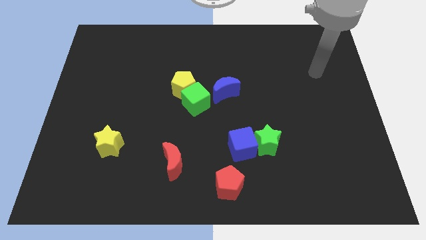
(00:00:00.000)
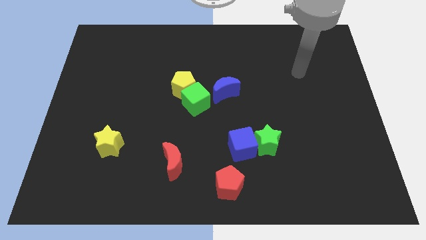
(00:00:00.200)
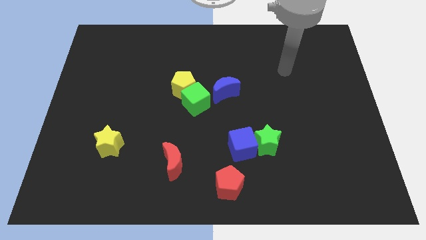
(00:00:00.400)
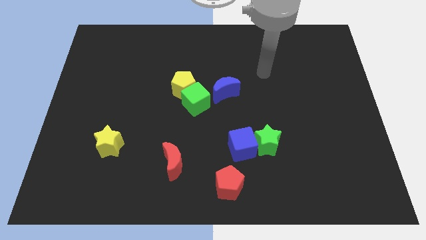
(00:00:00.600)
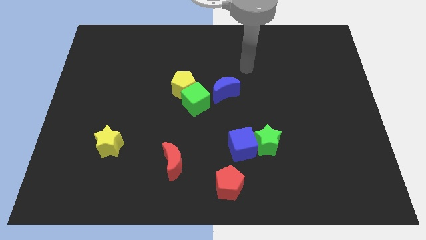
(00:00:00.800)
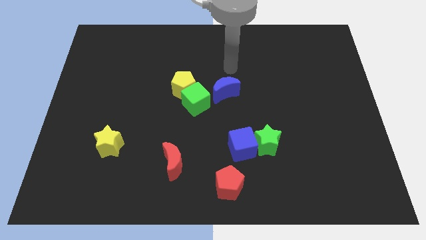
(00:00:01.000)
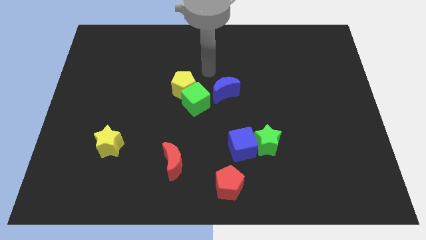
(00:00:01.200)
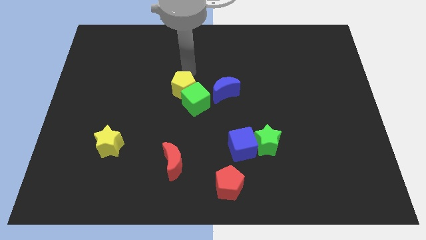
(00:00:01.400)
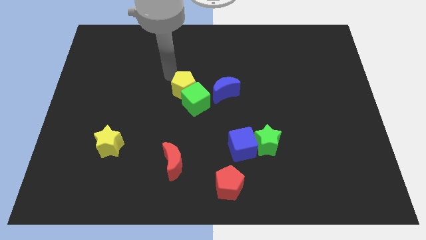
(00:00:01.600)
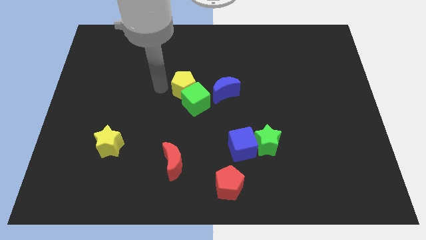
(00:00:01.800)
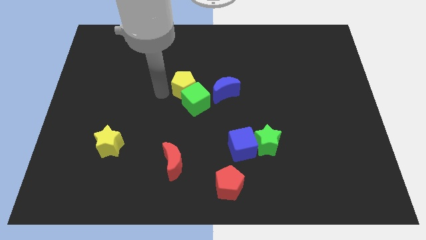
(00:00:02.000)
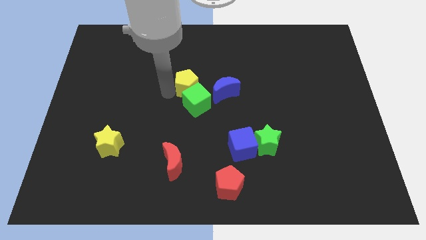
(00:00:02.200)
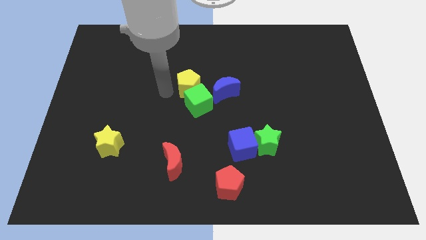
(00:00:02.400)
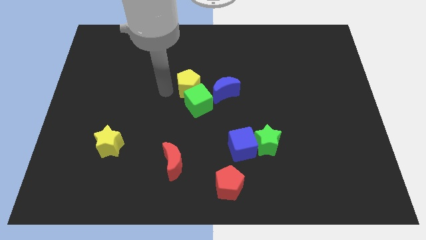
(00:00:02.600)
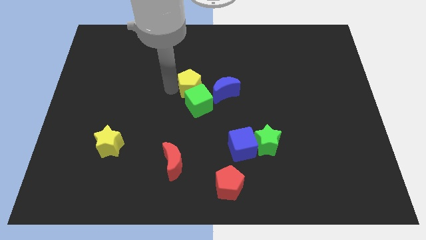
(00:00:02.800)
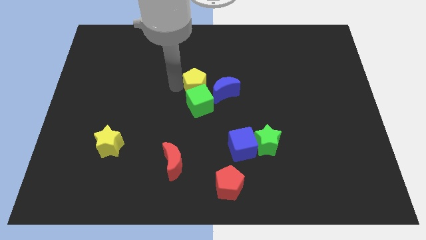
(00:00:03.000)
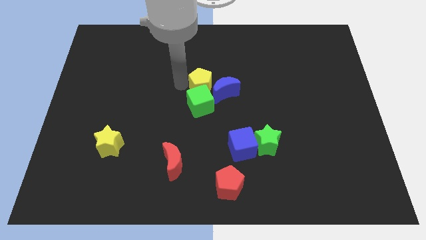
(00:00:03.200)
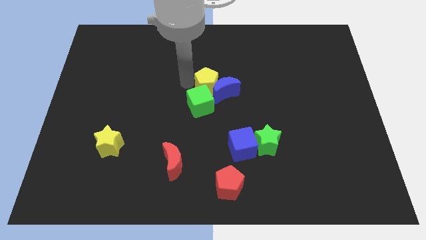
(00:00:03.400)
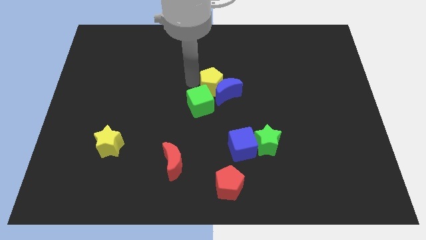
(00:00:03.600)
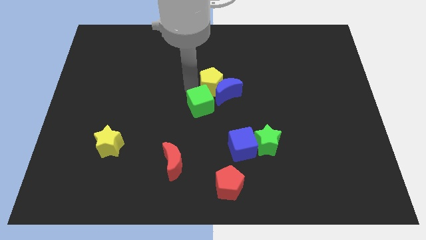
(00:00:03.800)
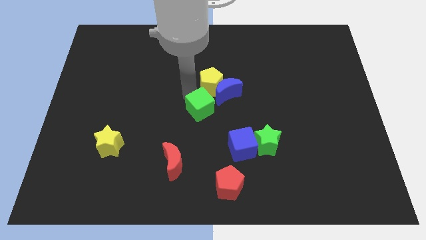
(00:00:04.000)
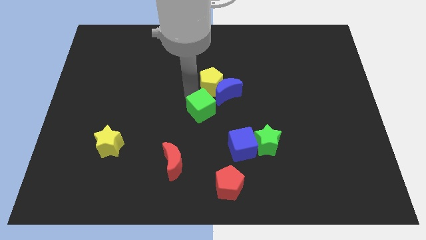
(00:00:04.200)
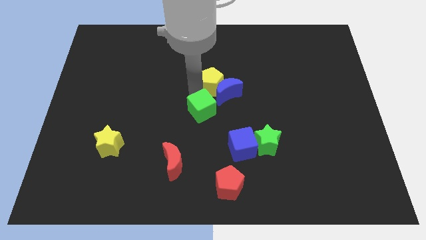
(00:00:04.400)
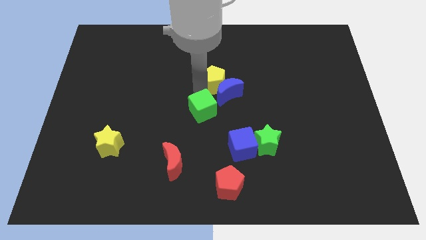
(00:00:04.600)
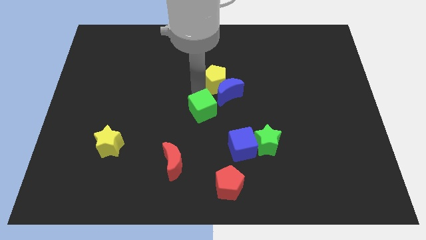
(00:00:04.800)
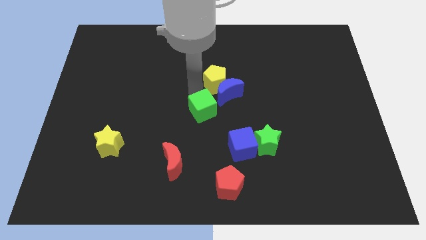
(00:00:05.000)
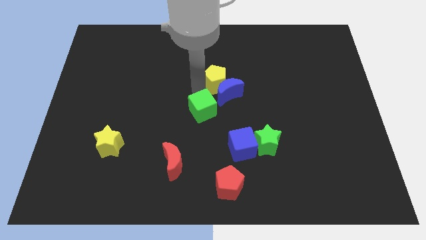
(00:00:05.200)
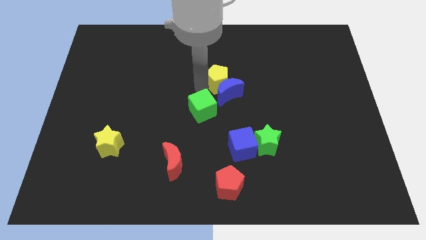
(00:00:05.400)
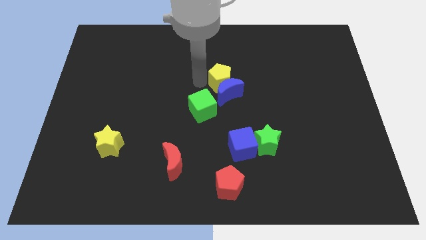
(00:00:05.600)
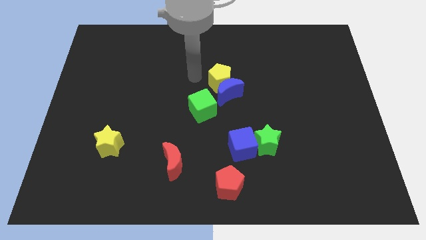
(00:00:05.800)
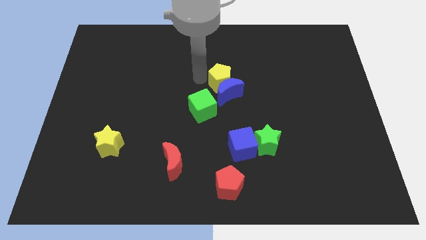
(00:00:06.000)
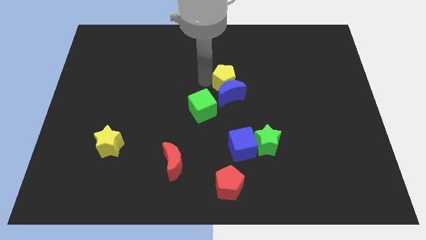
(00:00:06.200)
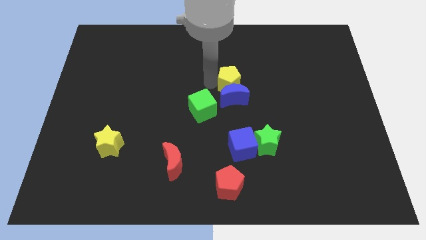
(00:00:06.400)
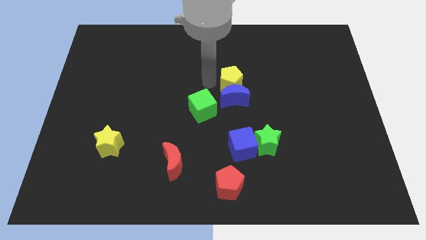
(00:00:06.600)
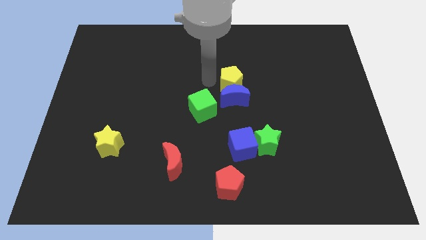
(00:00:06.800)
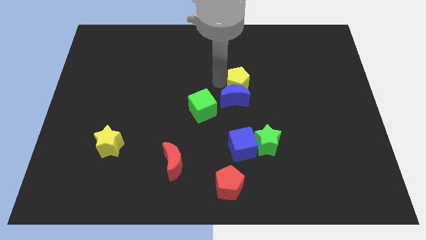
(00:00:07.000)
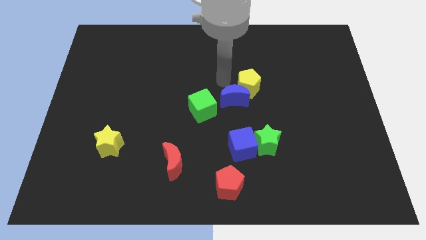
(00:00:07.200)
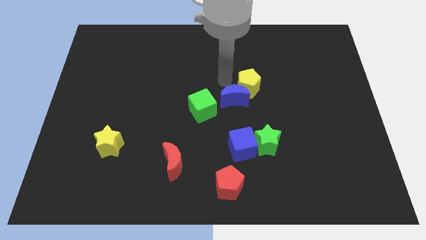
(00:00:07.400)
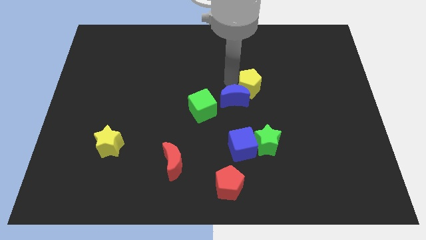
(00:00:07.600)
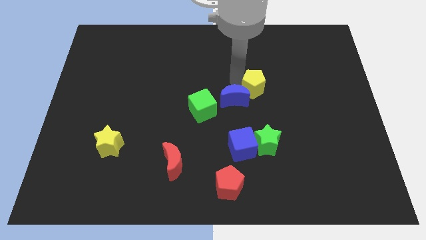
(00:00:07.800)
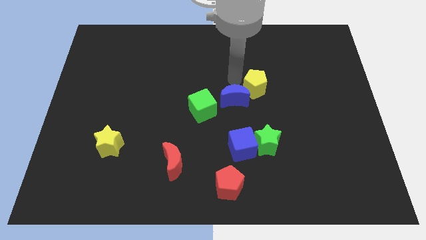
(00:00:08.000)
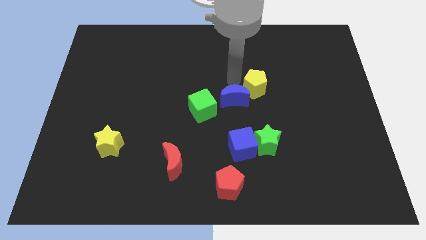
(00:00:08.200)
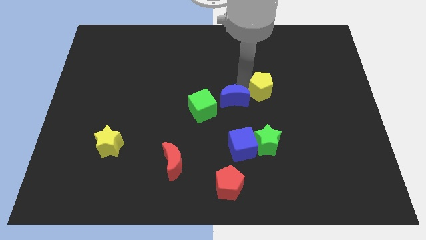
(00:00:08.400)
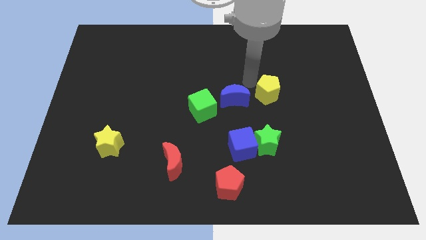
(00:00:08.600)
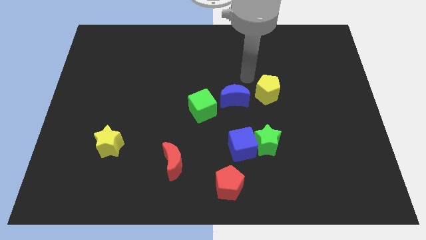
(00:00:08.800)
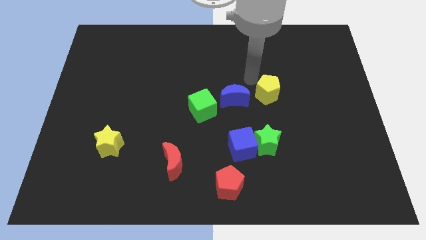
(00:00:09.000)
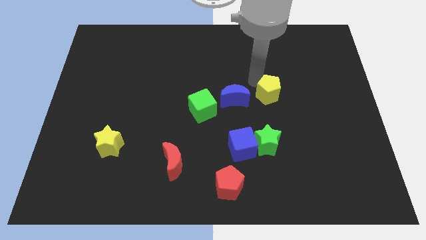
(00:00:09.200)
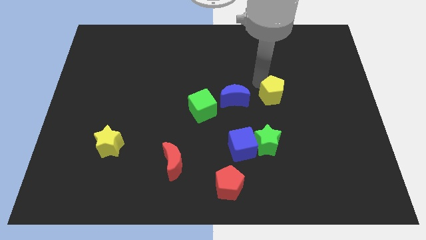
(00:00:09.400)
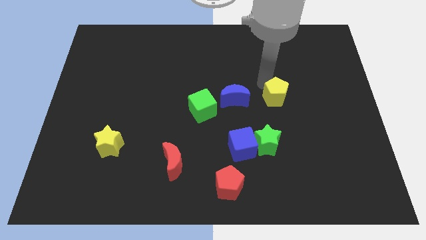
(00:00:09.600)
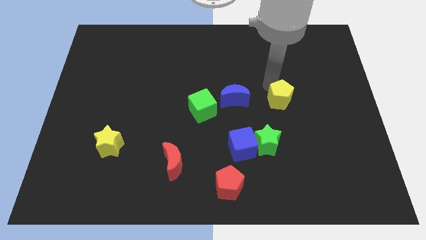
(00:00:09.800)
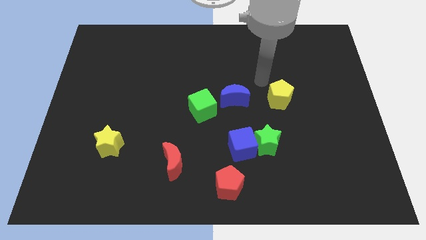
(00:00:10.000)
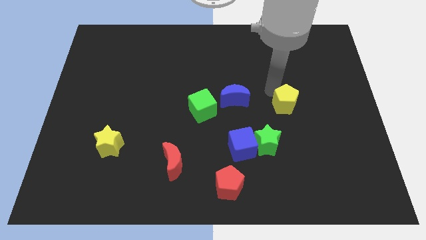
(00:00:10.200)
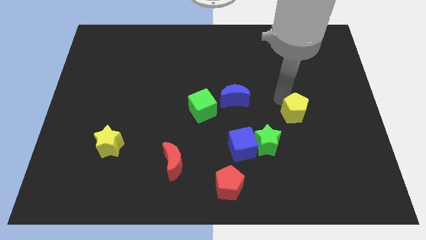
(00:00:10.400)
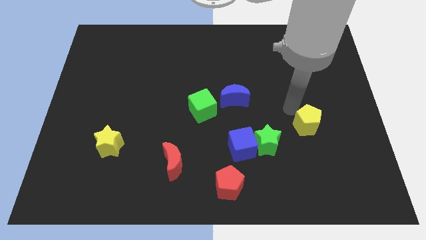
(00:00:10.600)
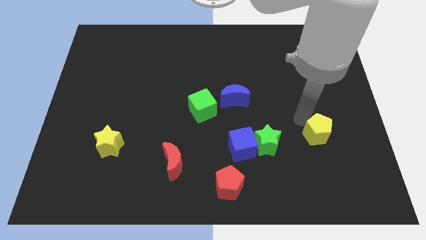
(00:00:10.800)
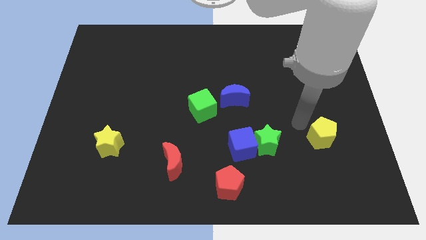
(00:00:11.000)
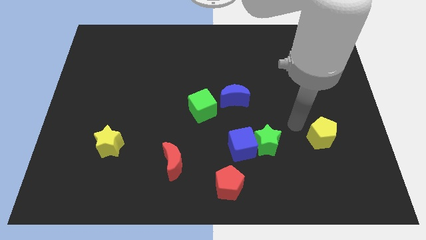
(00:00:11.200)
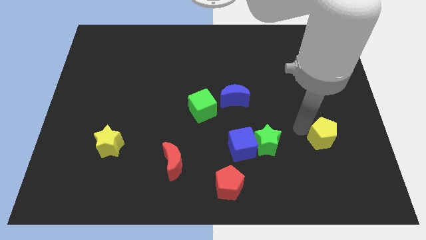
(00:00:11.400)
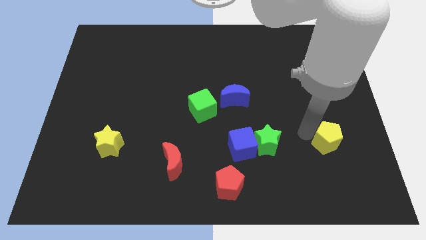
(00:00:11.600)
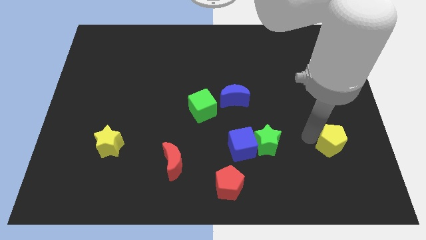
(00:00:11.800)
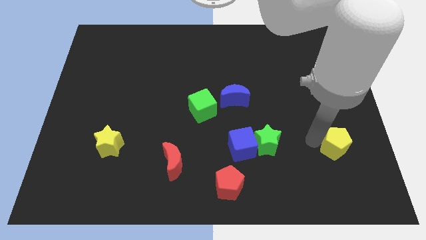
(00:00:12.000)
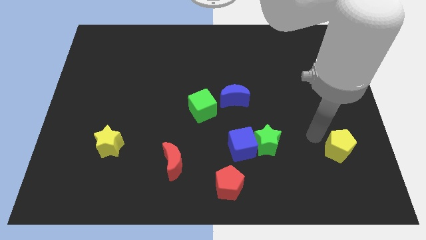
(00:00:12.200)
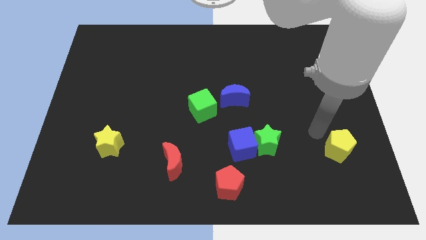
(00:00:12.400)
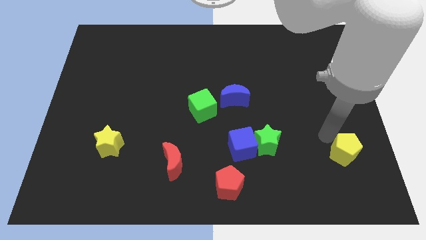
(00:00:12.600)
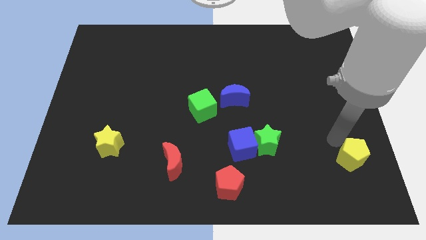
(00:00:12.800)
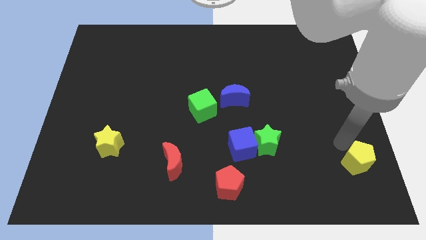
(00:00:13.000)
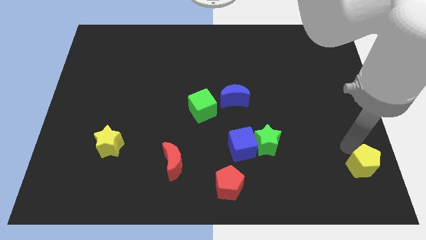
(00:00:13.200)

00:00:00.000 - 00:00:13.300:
put the yellow pentagon to the bottom right
